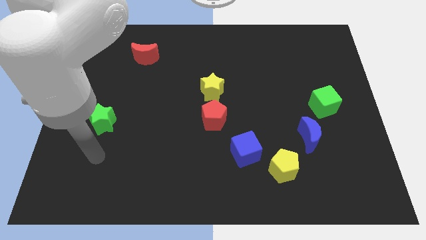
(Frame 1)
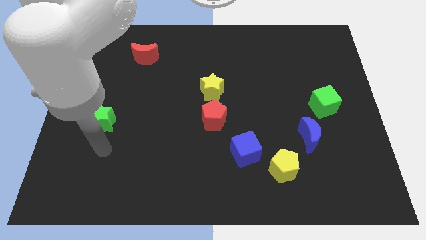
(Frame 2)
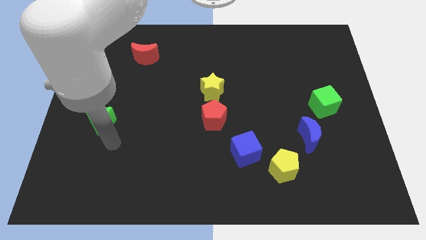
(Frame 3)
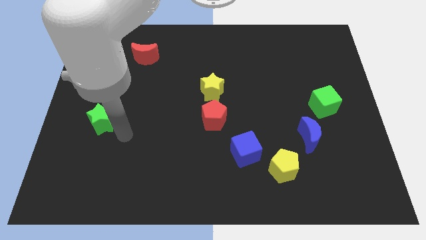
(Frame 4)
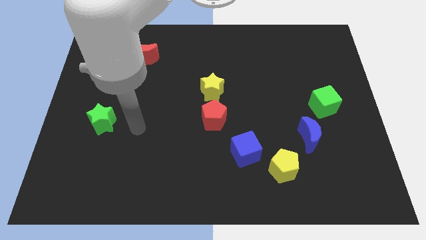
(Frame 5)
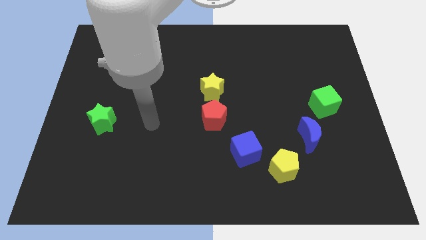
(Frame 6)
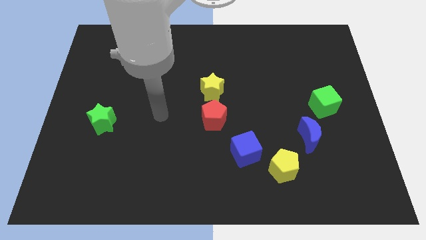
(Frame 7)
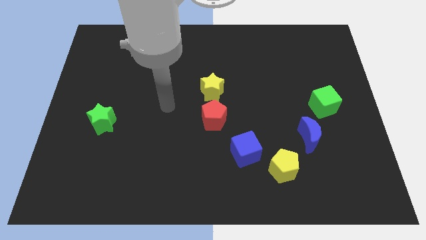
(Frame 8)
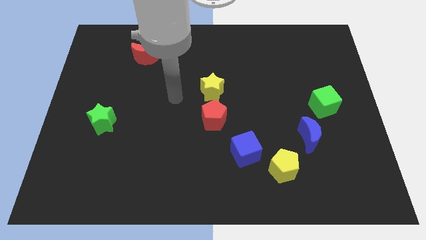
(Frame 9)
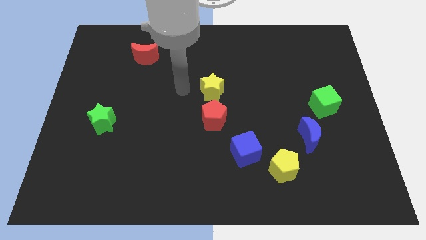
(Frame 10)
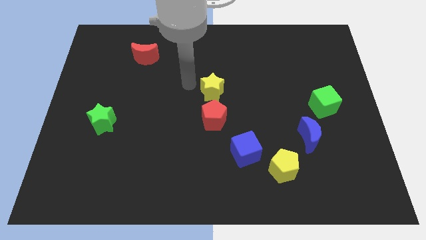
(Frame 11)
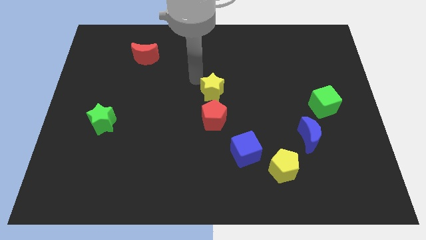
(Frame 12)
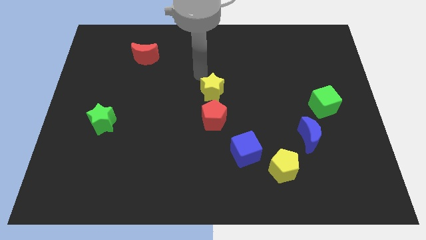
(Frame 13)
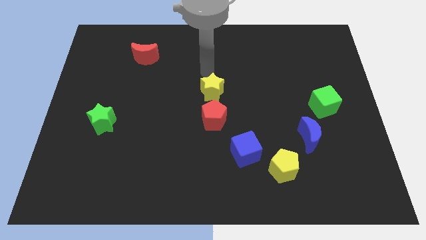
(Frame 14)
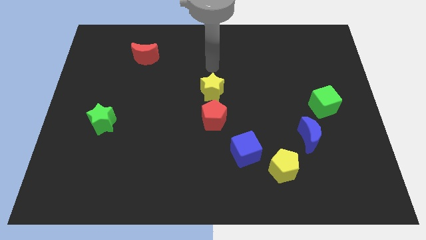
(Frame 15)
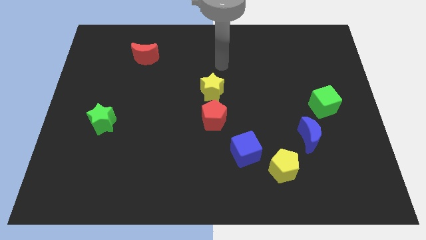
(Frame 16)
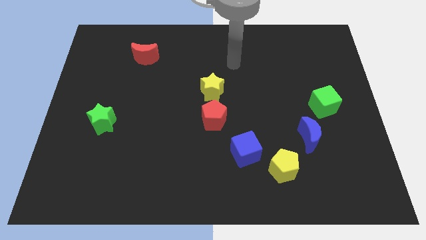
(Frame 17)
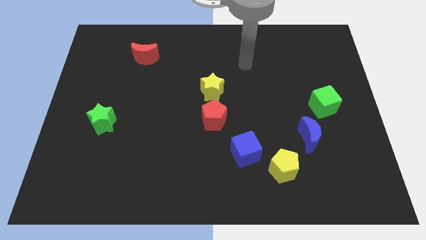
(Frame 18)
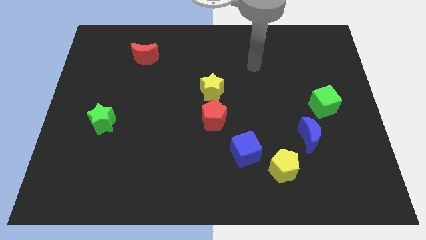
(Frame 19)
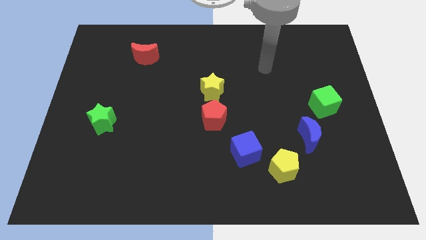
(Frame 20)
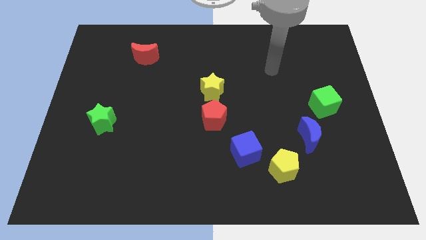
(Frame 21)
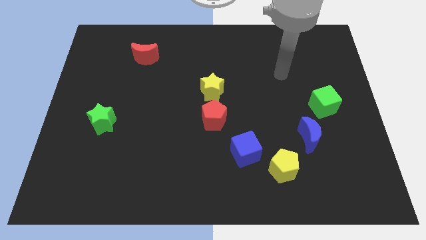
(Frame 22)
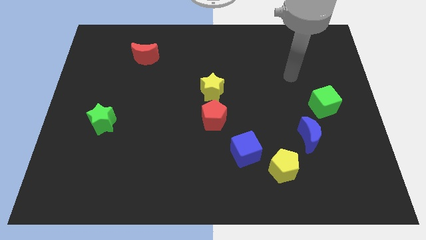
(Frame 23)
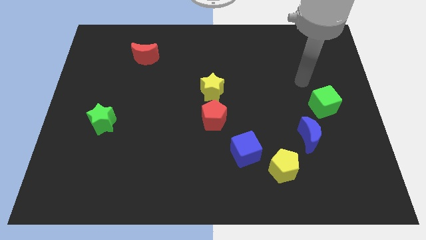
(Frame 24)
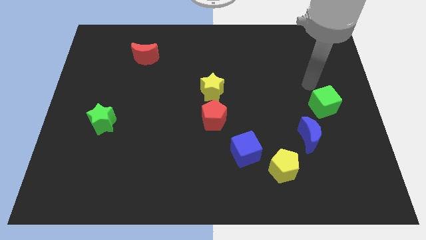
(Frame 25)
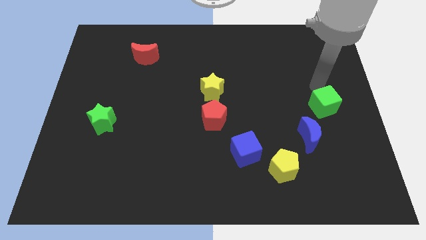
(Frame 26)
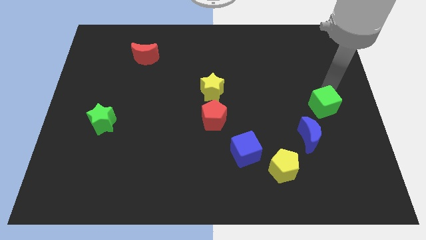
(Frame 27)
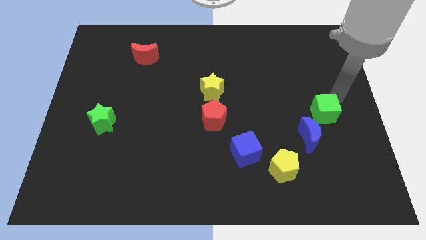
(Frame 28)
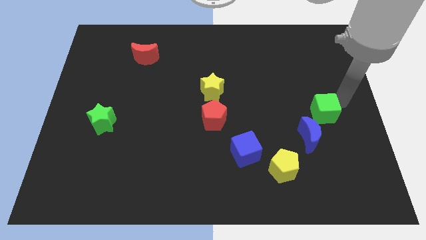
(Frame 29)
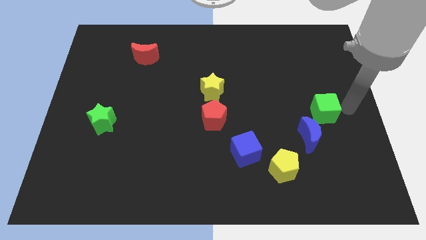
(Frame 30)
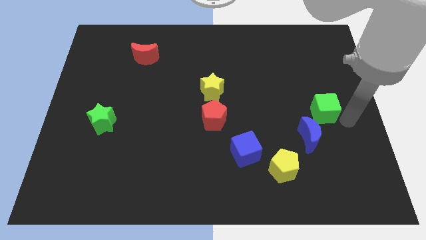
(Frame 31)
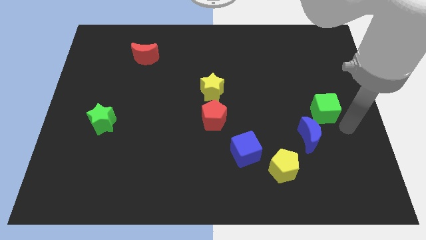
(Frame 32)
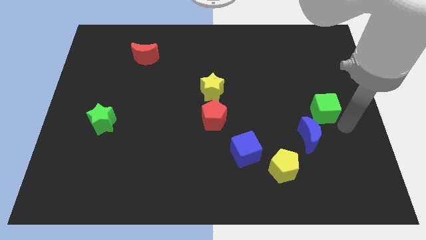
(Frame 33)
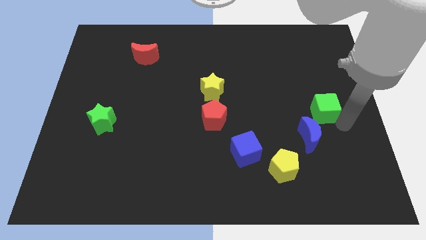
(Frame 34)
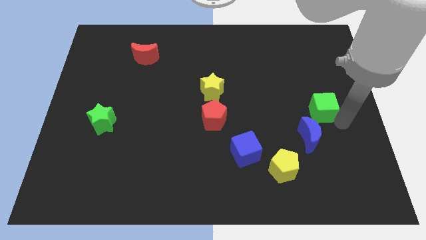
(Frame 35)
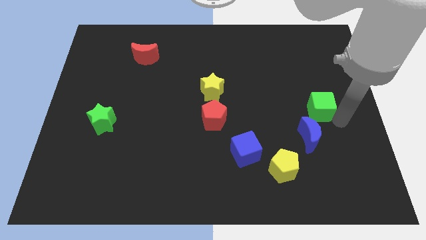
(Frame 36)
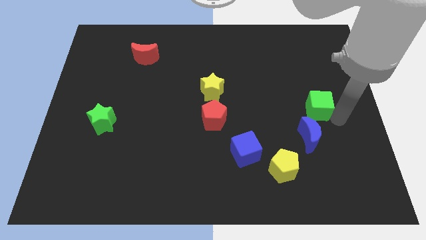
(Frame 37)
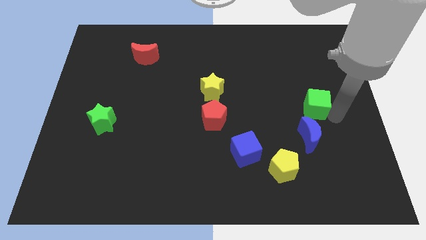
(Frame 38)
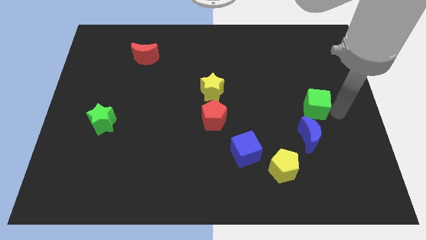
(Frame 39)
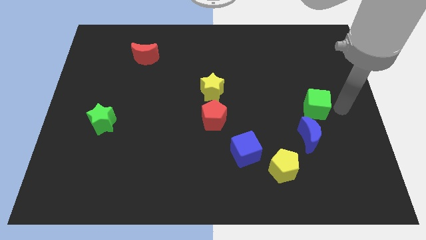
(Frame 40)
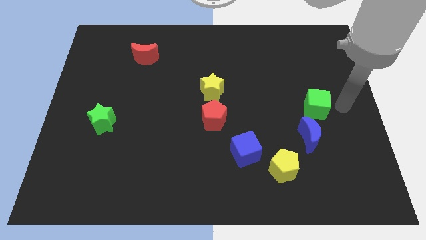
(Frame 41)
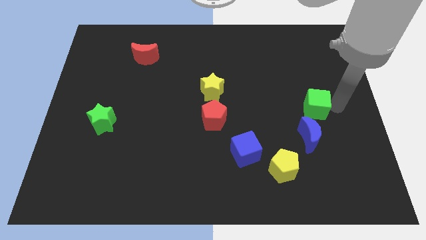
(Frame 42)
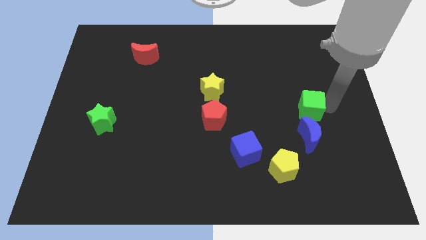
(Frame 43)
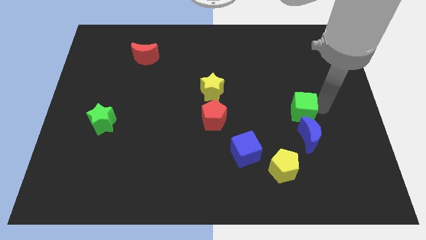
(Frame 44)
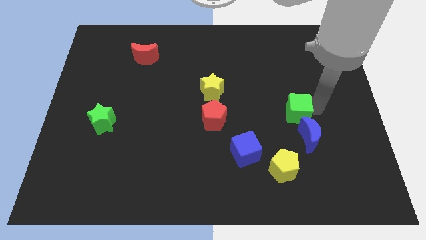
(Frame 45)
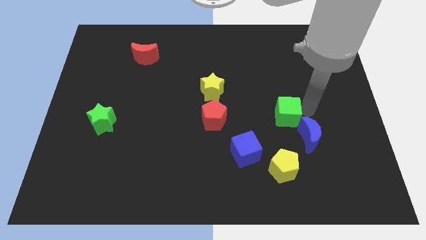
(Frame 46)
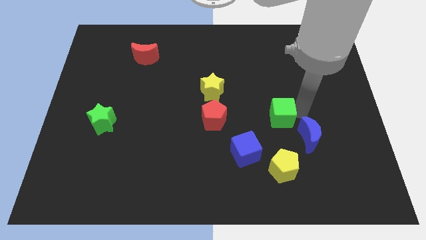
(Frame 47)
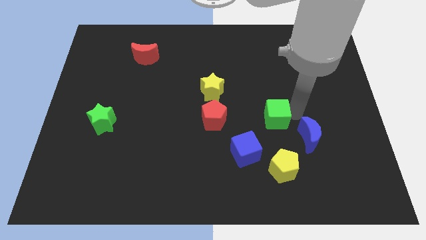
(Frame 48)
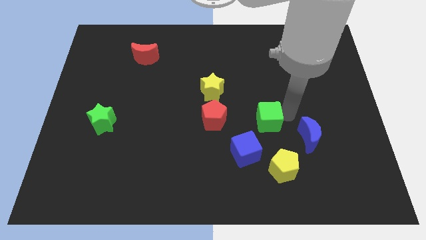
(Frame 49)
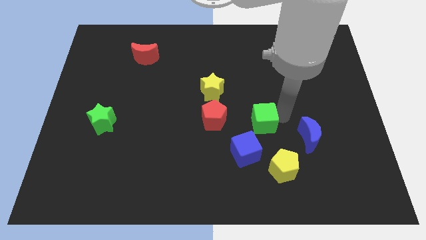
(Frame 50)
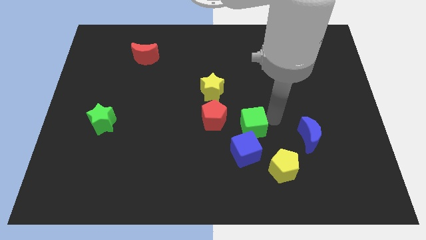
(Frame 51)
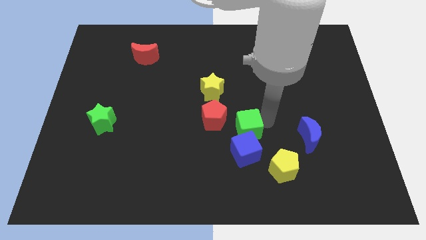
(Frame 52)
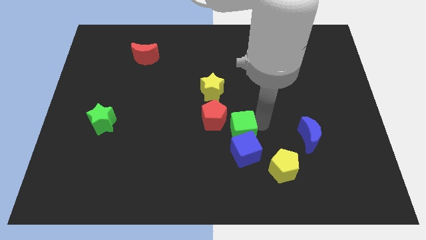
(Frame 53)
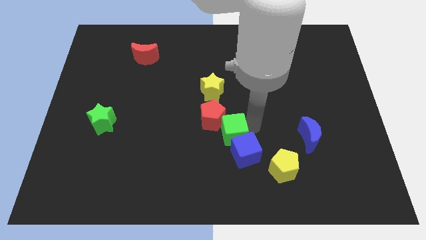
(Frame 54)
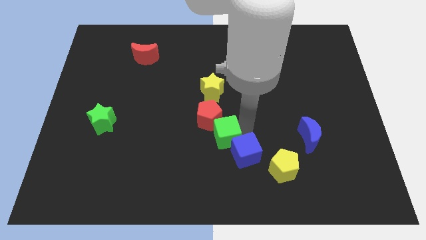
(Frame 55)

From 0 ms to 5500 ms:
slide the green cube to the left

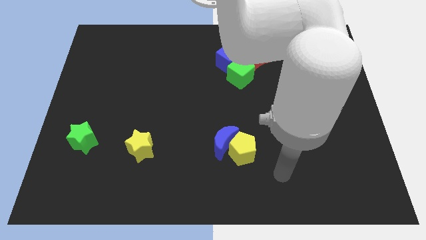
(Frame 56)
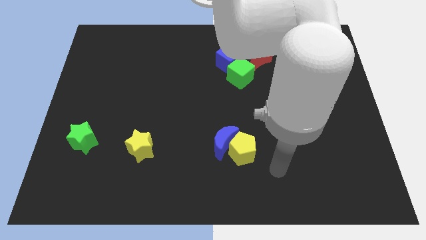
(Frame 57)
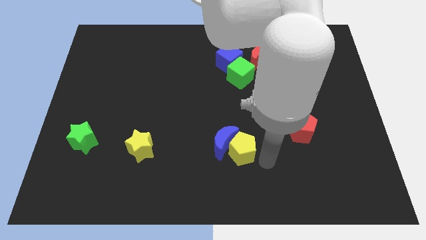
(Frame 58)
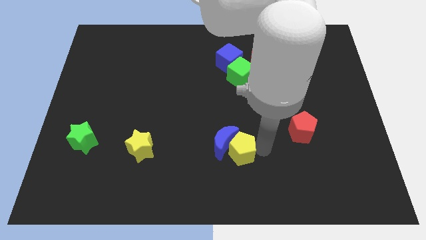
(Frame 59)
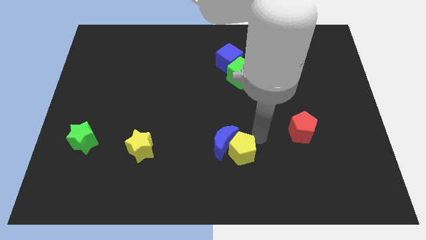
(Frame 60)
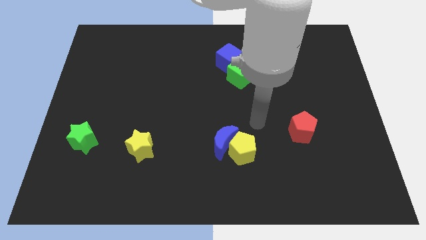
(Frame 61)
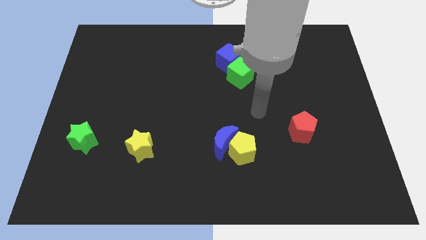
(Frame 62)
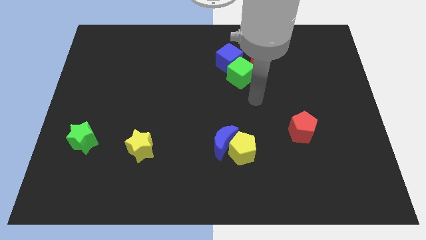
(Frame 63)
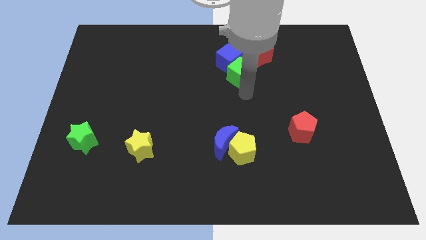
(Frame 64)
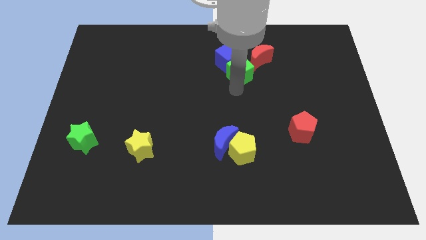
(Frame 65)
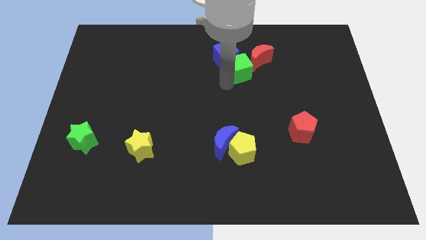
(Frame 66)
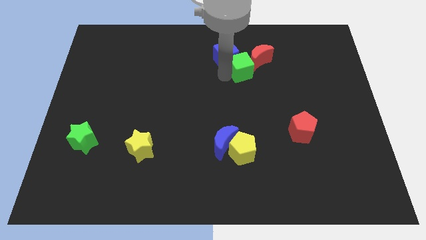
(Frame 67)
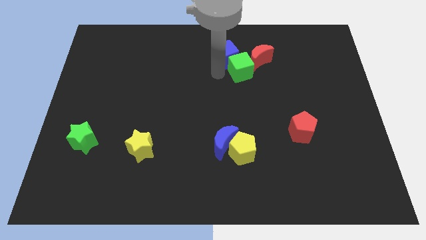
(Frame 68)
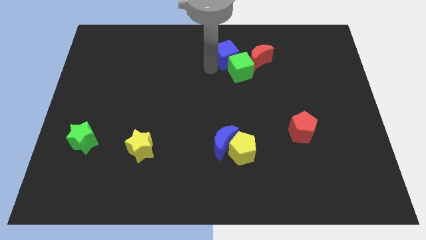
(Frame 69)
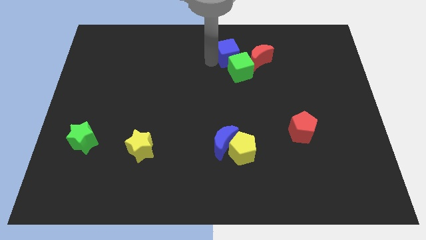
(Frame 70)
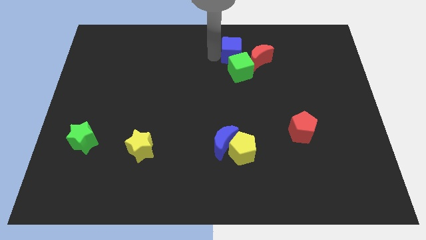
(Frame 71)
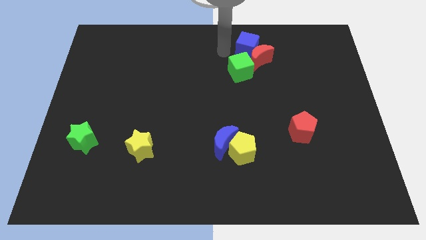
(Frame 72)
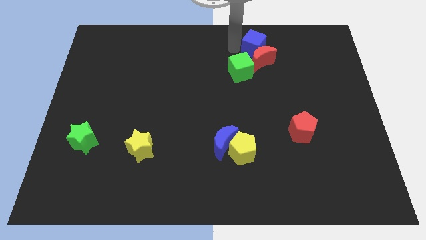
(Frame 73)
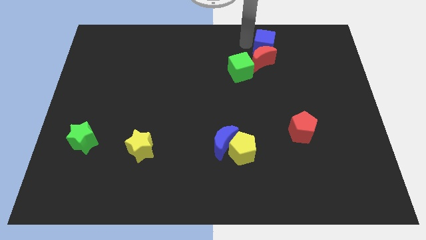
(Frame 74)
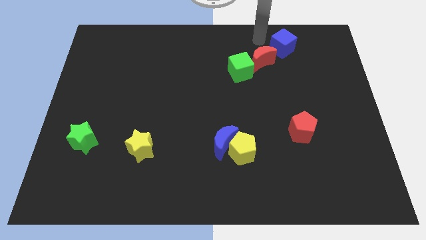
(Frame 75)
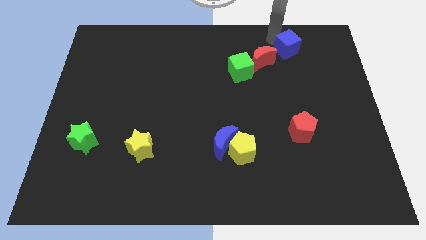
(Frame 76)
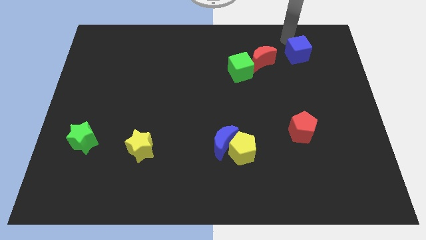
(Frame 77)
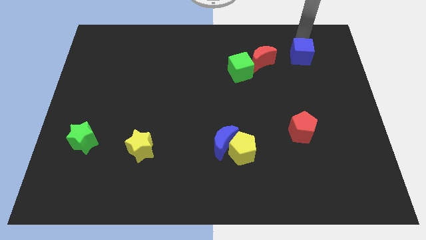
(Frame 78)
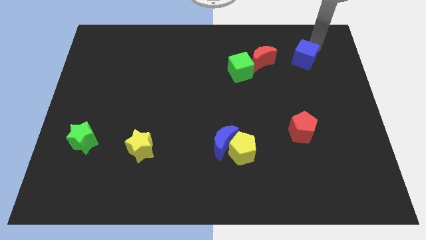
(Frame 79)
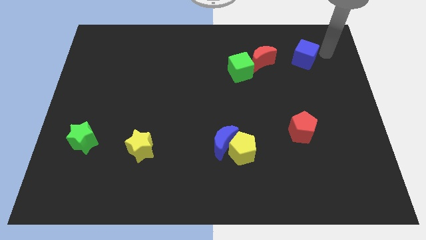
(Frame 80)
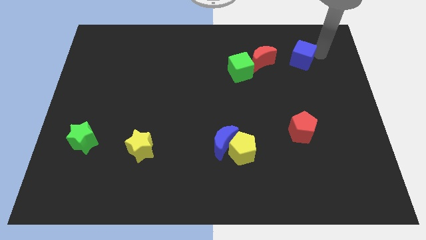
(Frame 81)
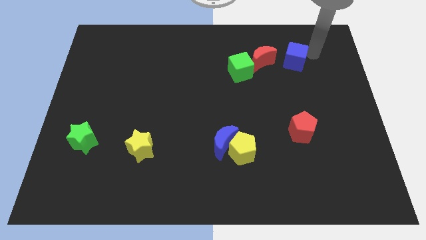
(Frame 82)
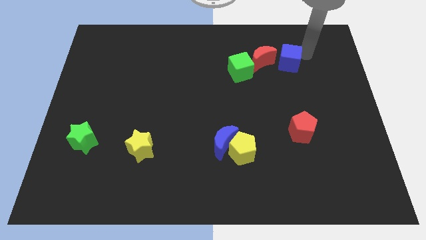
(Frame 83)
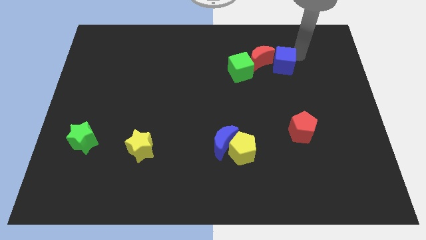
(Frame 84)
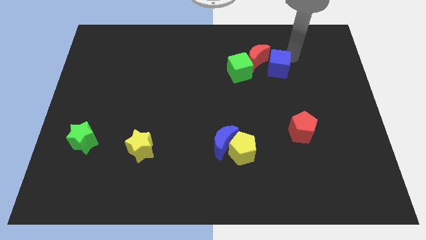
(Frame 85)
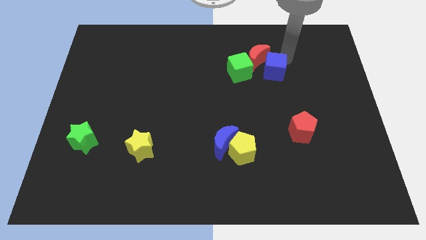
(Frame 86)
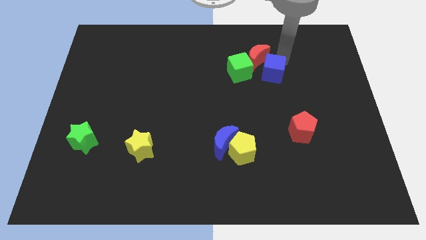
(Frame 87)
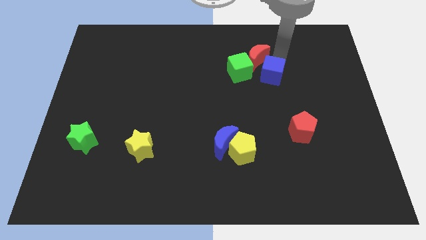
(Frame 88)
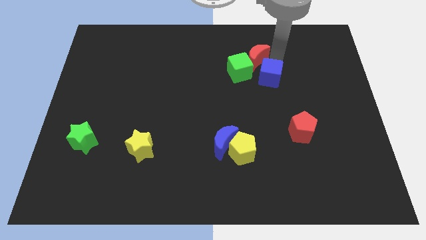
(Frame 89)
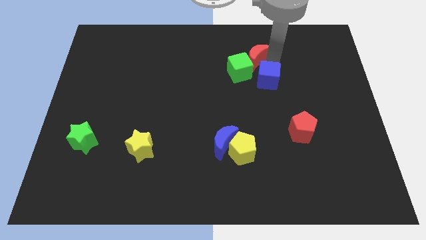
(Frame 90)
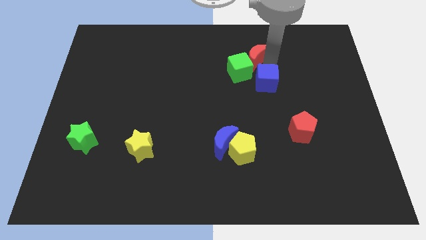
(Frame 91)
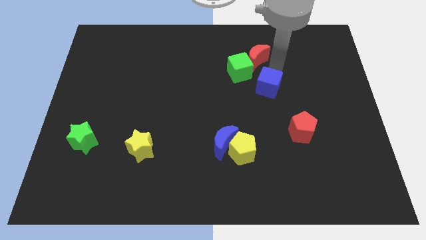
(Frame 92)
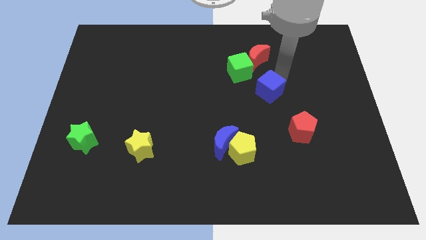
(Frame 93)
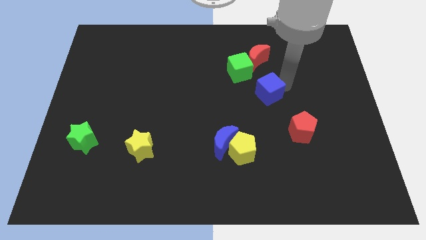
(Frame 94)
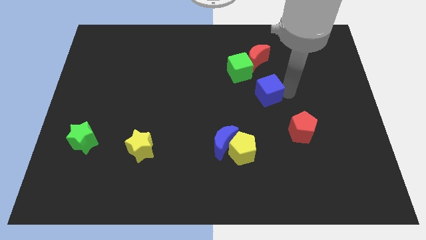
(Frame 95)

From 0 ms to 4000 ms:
push the blue cube slightly down
